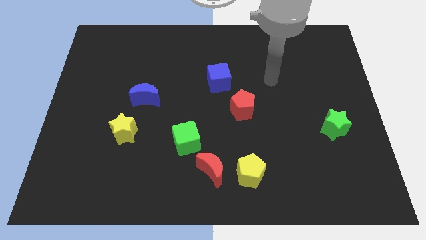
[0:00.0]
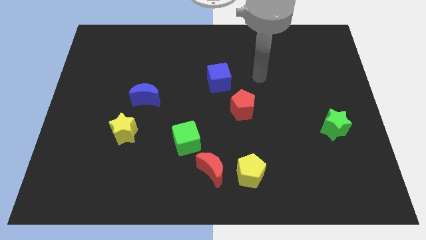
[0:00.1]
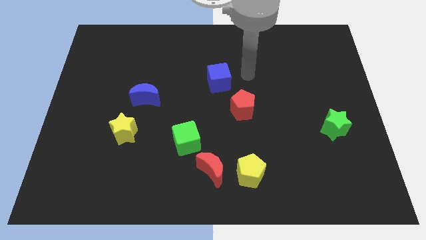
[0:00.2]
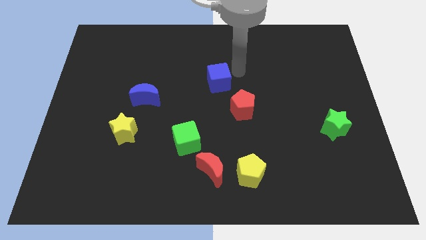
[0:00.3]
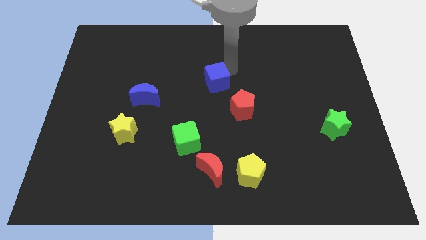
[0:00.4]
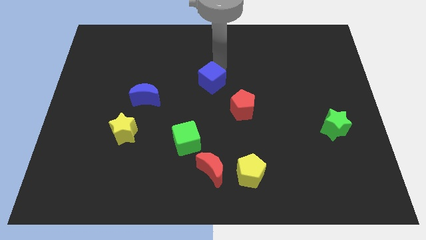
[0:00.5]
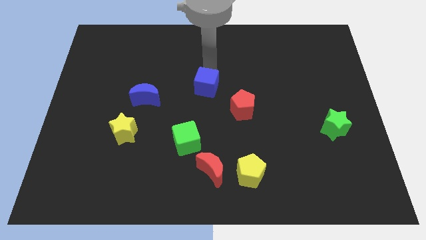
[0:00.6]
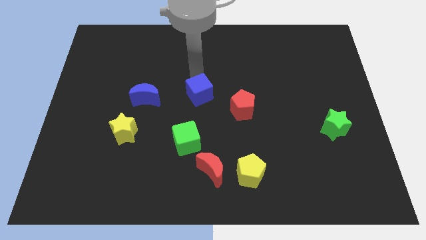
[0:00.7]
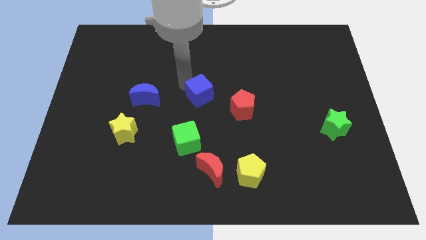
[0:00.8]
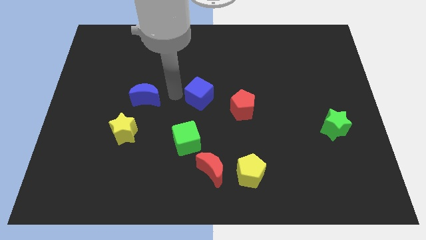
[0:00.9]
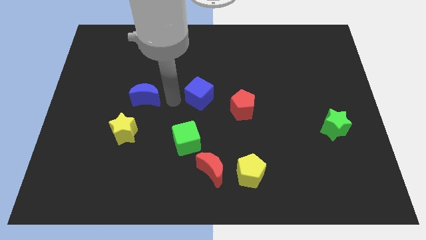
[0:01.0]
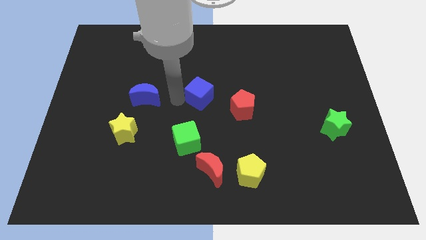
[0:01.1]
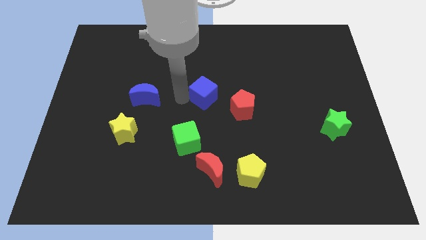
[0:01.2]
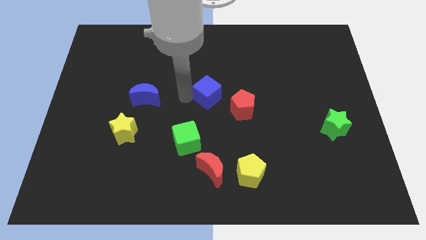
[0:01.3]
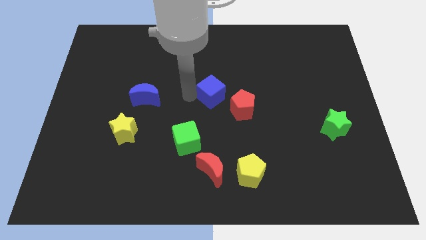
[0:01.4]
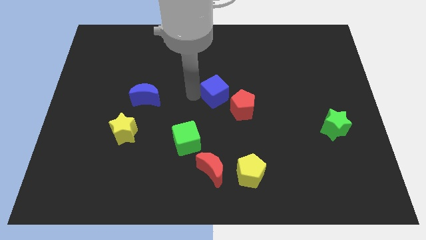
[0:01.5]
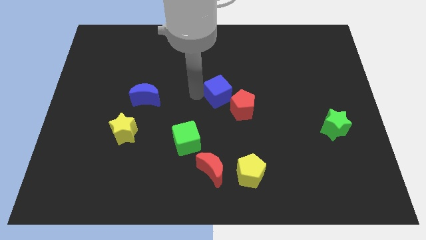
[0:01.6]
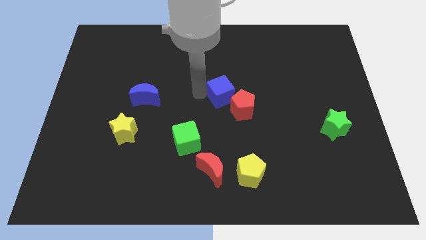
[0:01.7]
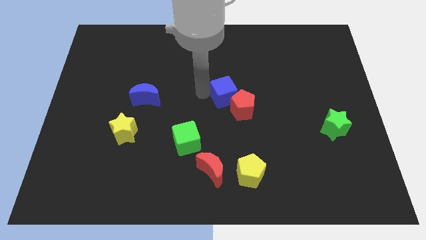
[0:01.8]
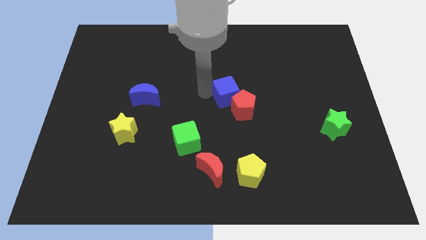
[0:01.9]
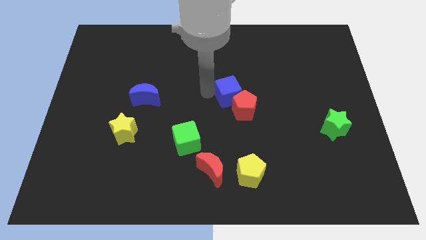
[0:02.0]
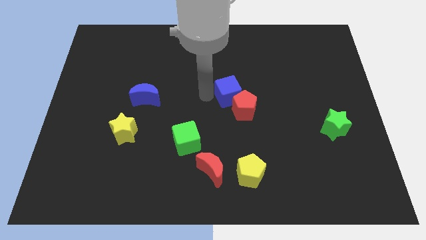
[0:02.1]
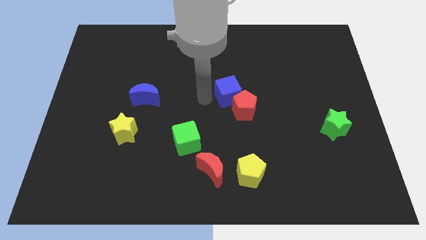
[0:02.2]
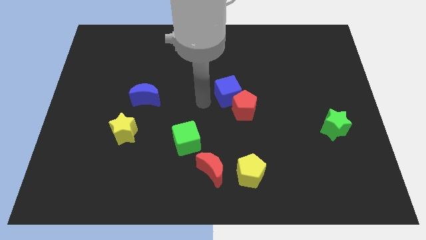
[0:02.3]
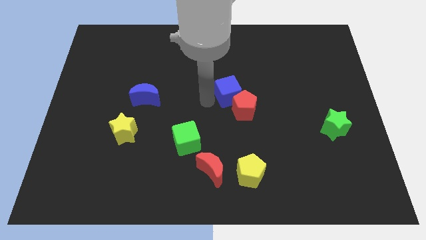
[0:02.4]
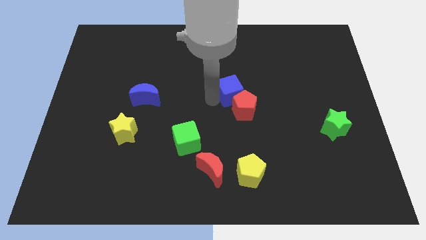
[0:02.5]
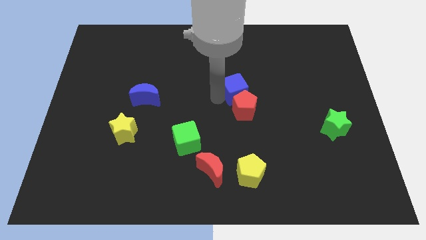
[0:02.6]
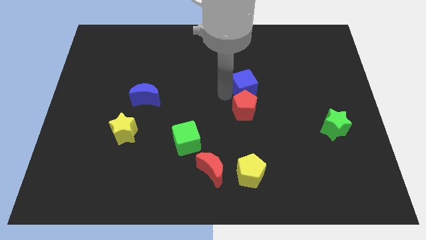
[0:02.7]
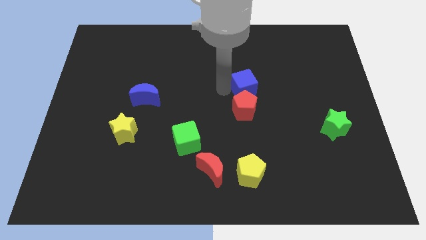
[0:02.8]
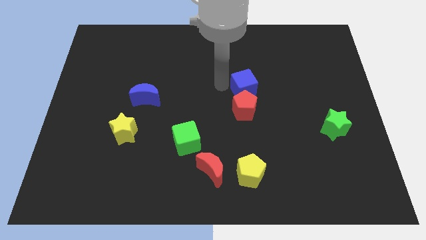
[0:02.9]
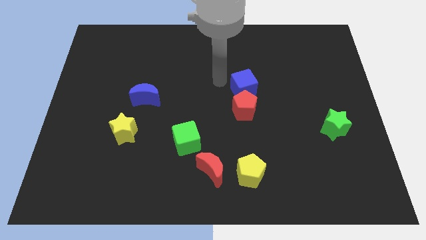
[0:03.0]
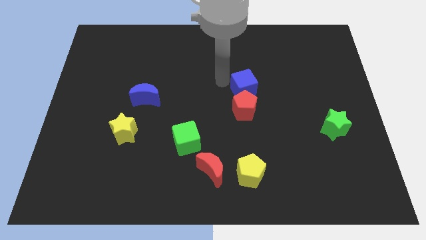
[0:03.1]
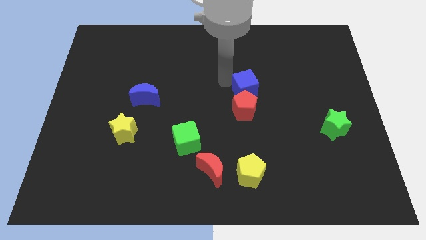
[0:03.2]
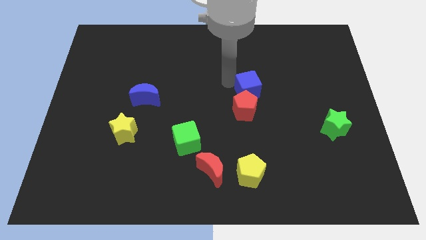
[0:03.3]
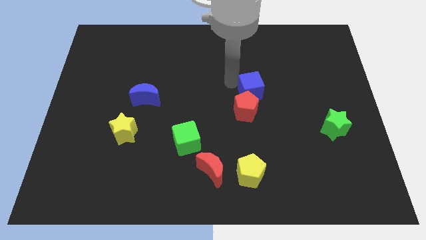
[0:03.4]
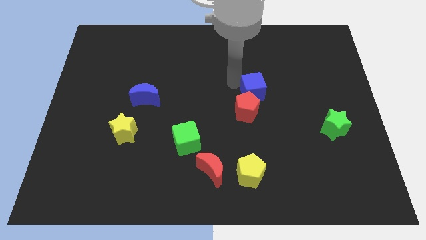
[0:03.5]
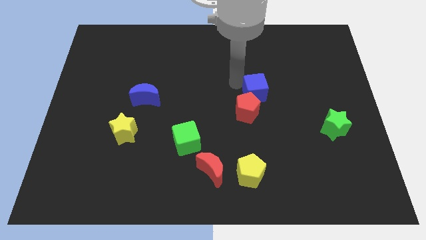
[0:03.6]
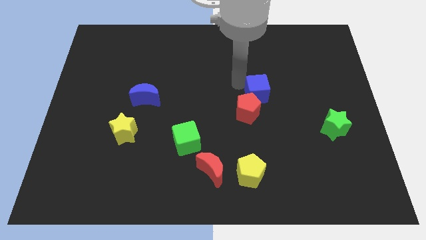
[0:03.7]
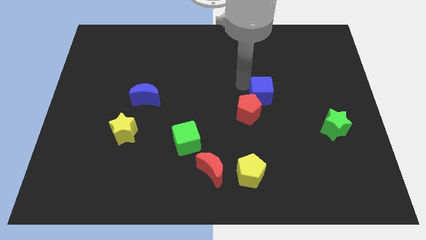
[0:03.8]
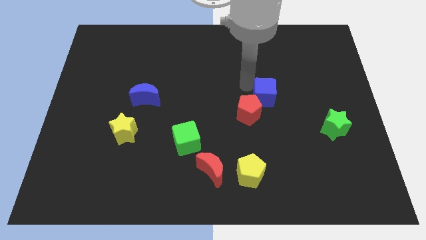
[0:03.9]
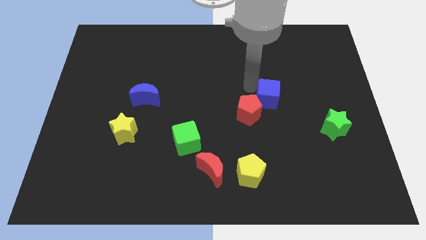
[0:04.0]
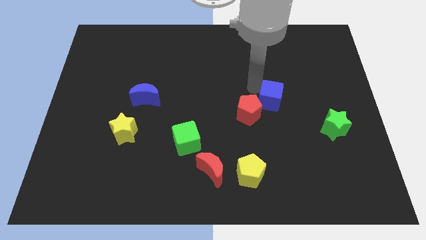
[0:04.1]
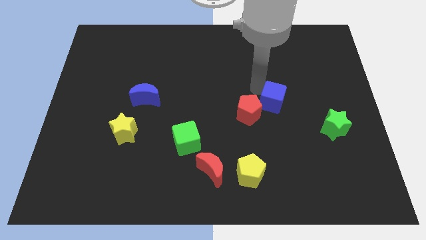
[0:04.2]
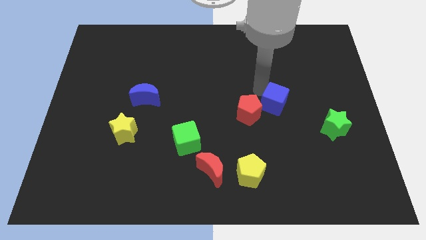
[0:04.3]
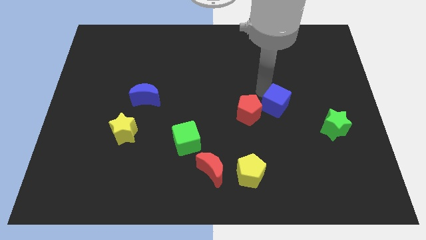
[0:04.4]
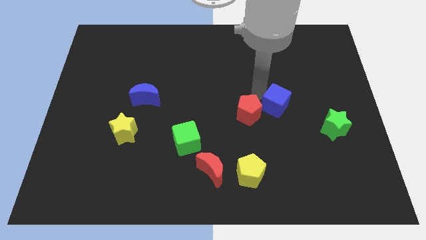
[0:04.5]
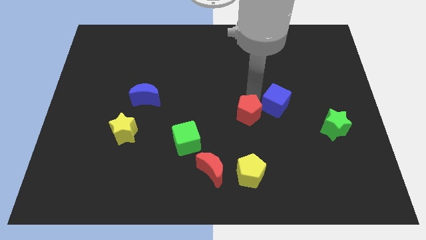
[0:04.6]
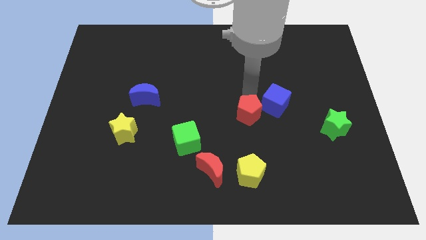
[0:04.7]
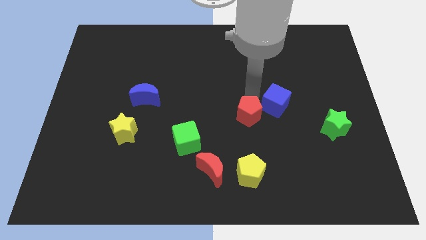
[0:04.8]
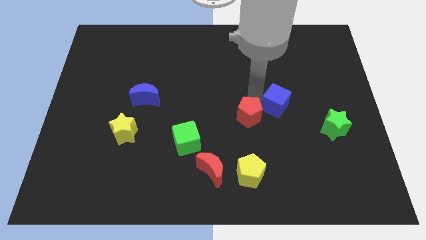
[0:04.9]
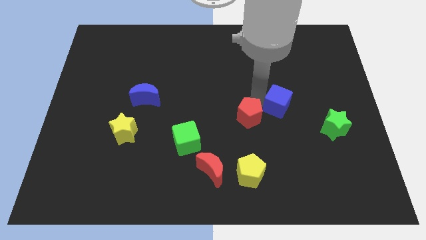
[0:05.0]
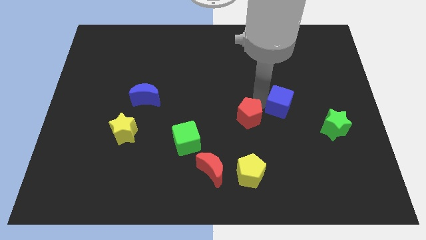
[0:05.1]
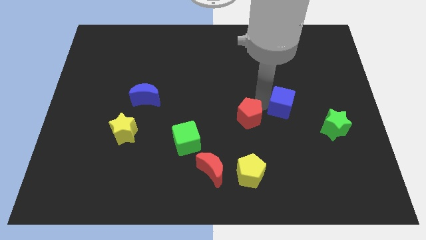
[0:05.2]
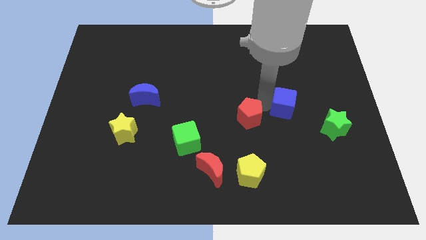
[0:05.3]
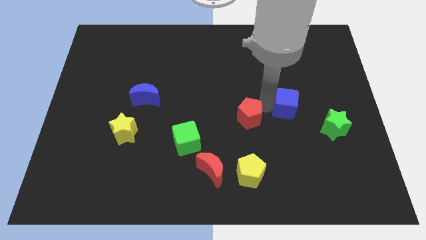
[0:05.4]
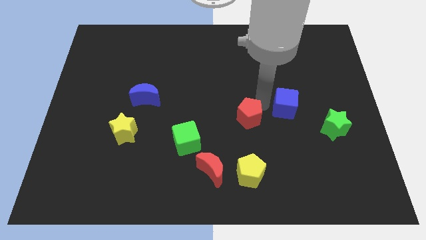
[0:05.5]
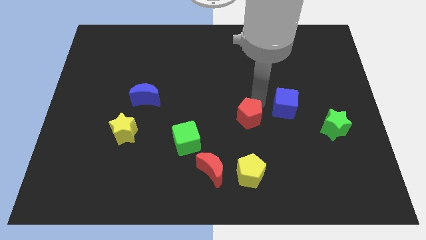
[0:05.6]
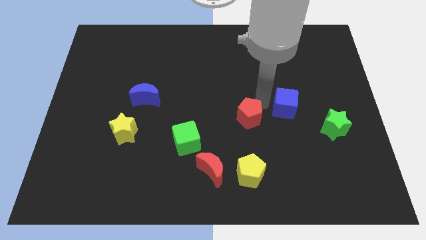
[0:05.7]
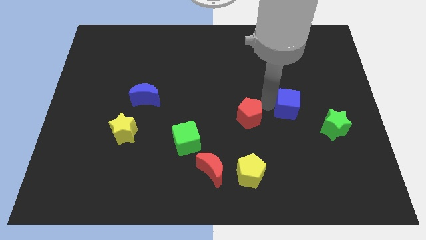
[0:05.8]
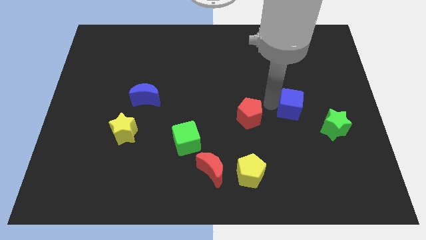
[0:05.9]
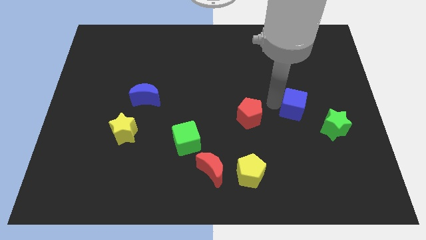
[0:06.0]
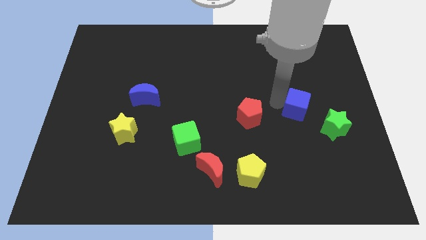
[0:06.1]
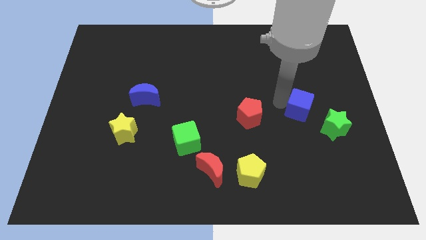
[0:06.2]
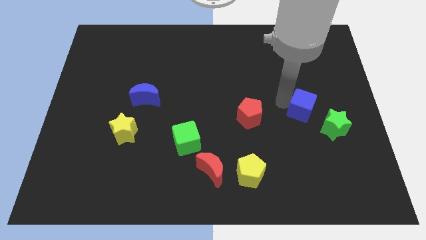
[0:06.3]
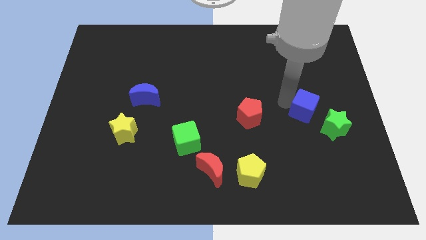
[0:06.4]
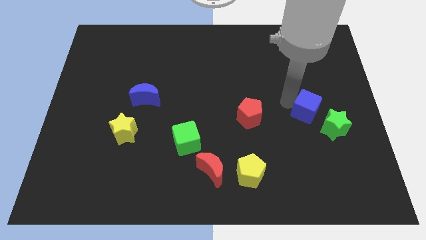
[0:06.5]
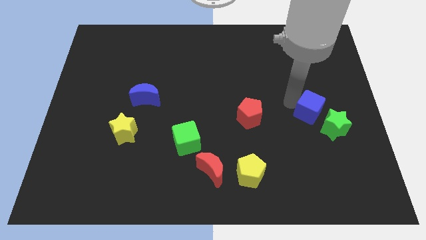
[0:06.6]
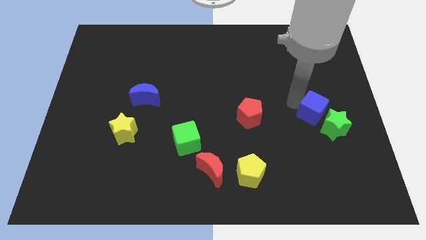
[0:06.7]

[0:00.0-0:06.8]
put the blue cube to the green star
